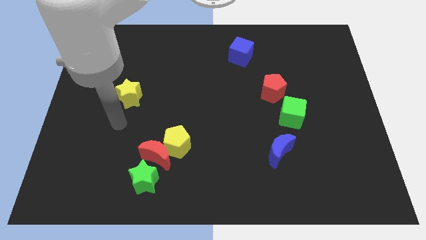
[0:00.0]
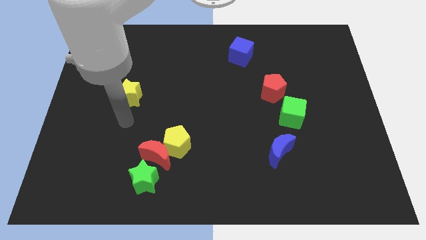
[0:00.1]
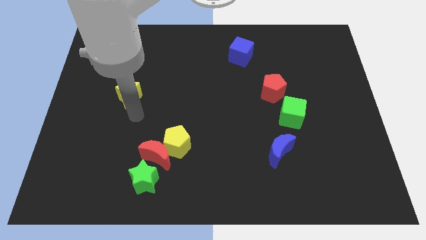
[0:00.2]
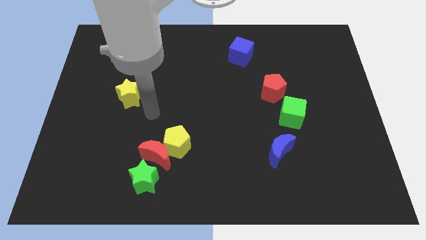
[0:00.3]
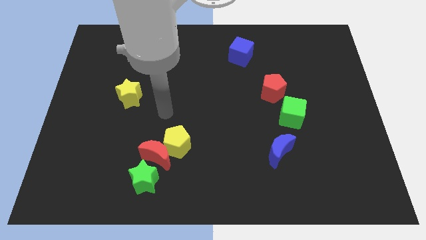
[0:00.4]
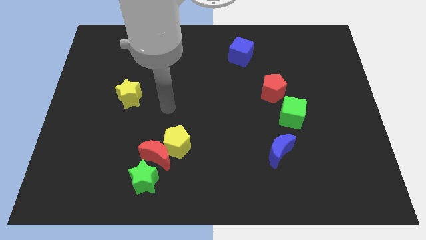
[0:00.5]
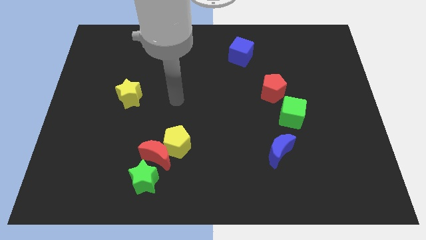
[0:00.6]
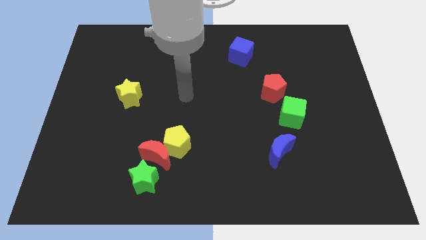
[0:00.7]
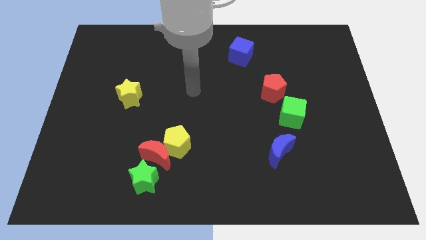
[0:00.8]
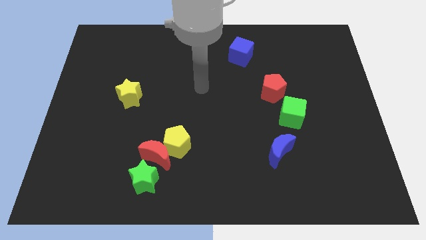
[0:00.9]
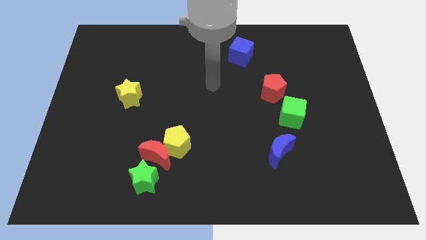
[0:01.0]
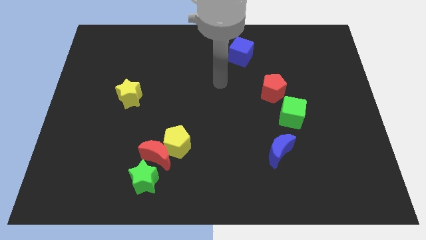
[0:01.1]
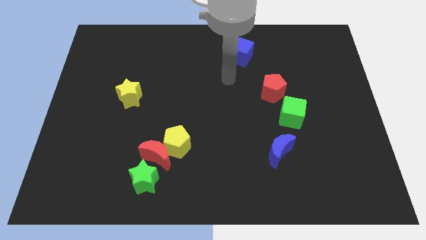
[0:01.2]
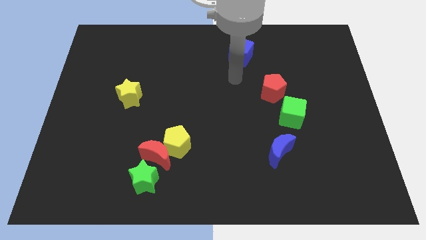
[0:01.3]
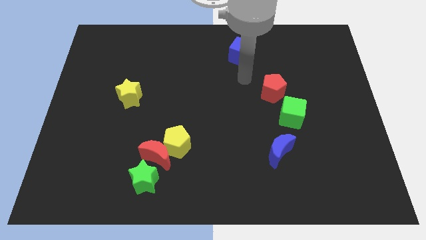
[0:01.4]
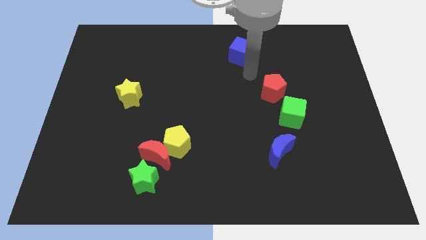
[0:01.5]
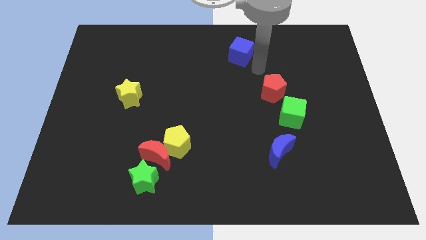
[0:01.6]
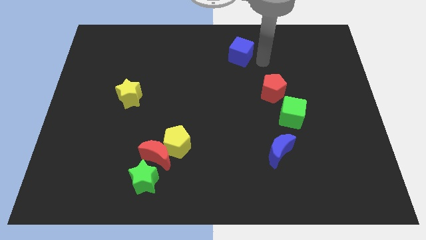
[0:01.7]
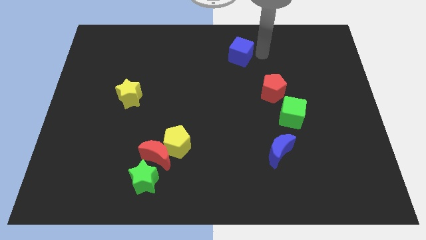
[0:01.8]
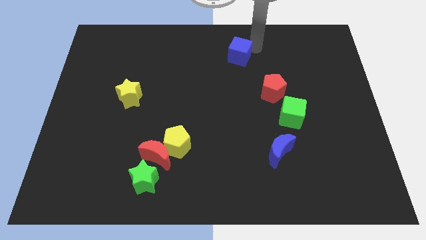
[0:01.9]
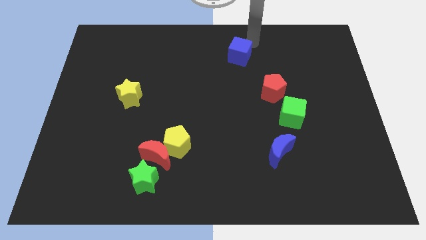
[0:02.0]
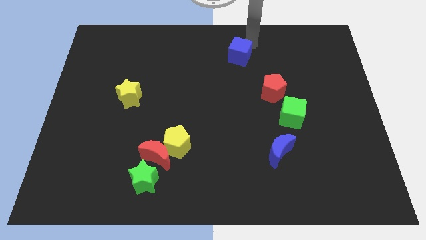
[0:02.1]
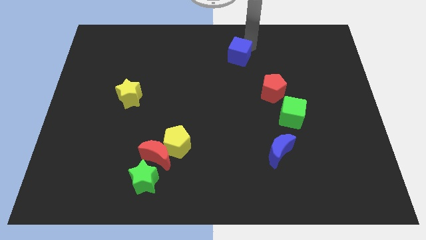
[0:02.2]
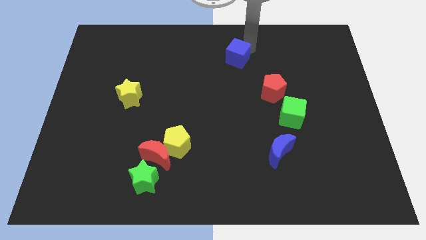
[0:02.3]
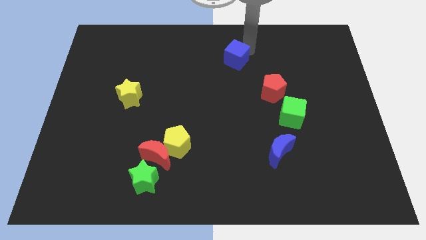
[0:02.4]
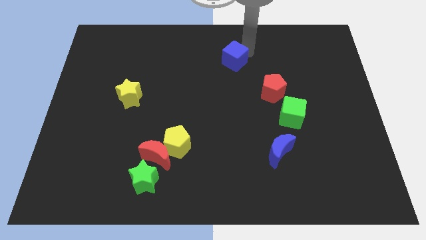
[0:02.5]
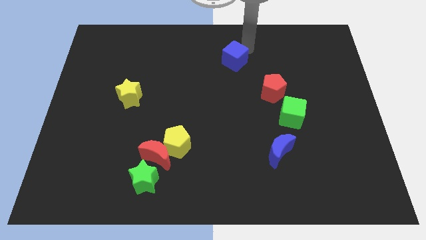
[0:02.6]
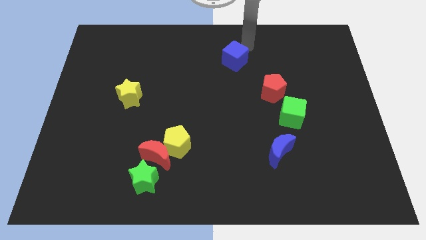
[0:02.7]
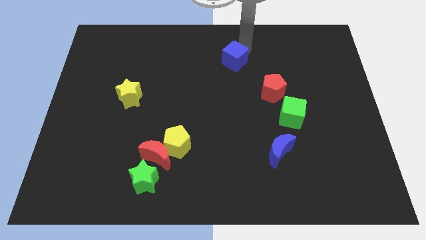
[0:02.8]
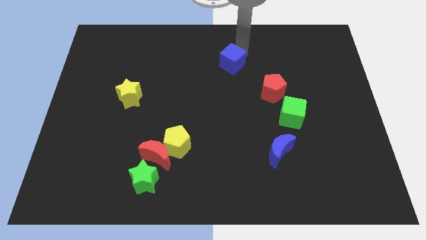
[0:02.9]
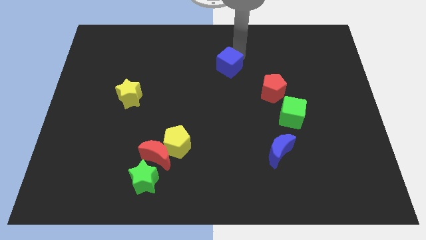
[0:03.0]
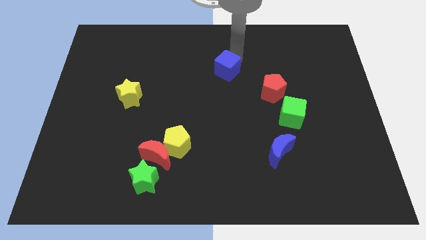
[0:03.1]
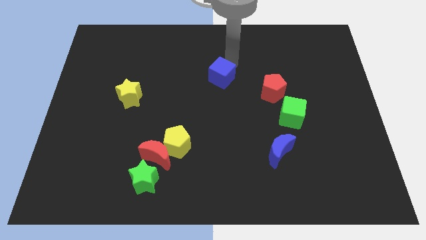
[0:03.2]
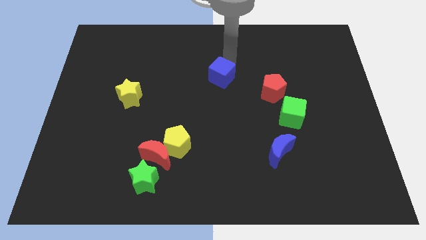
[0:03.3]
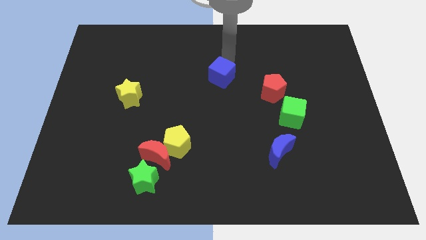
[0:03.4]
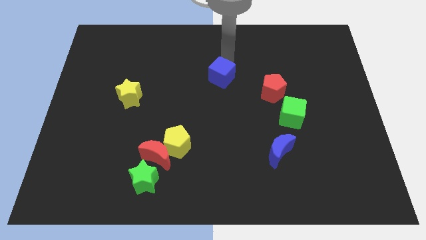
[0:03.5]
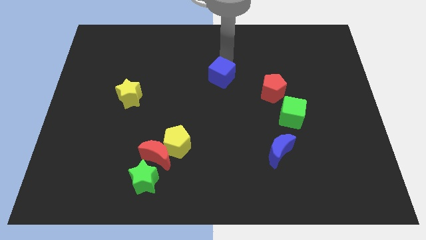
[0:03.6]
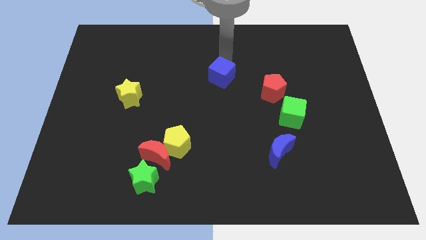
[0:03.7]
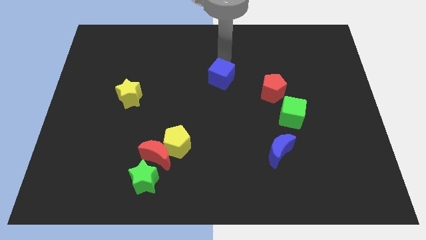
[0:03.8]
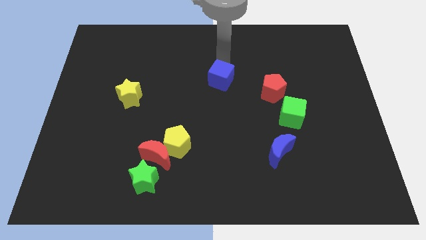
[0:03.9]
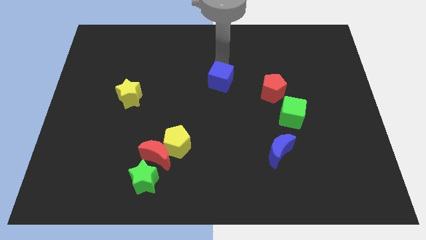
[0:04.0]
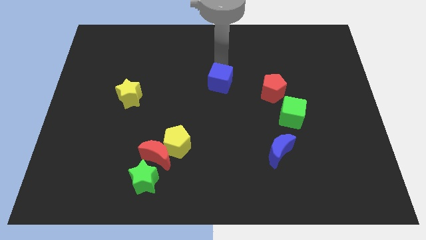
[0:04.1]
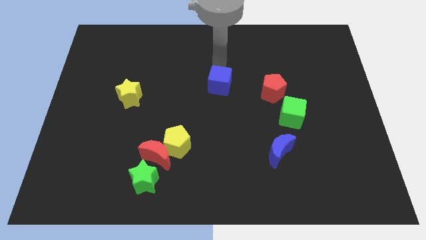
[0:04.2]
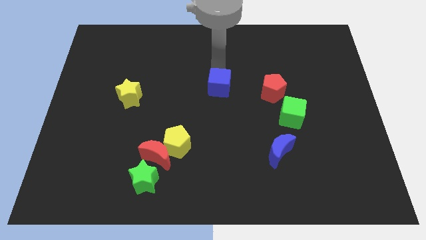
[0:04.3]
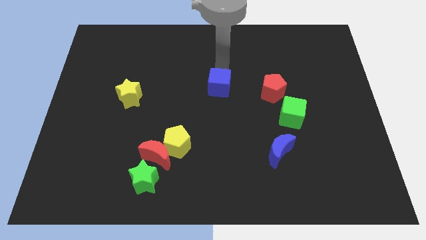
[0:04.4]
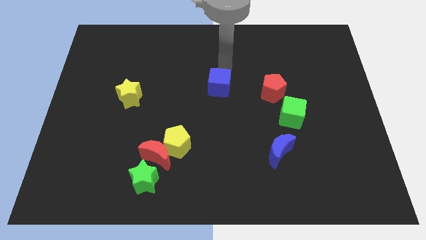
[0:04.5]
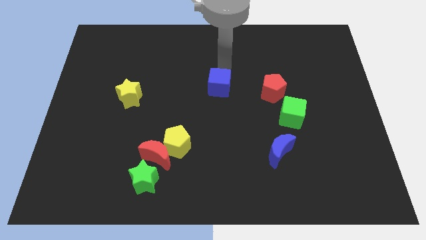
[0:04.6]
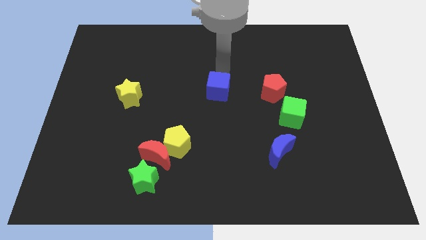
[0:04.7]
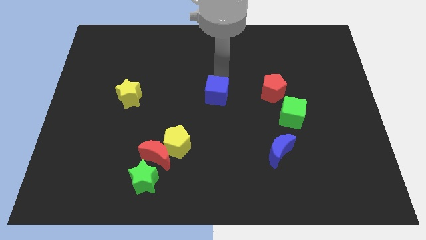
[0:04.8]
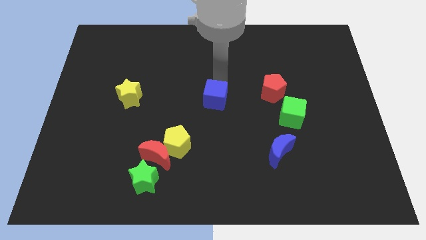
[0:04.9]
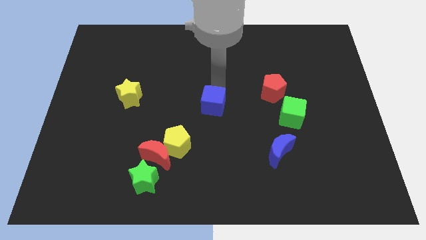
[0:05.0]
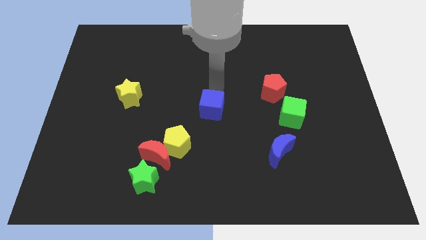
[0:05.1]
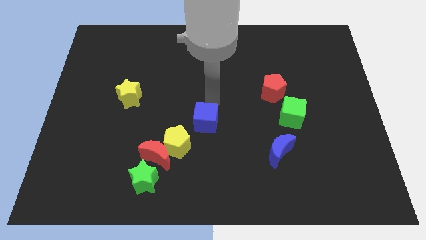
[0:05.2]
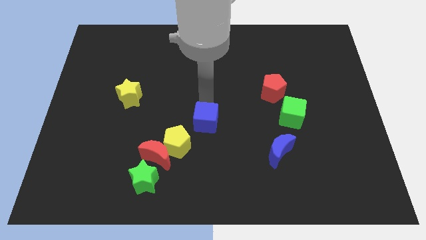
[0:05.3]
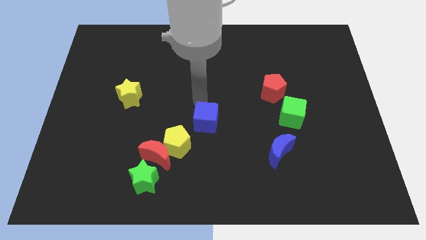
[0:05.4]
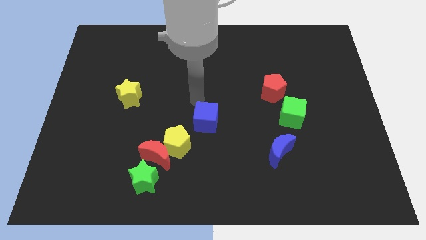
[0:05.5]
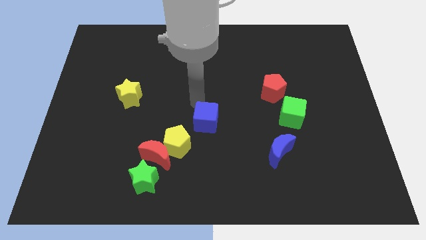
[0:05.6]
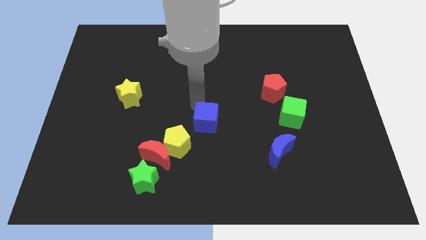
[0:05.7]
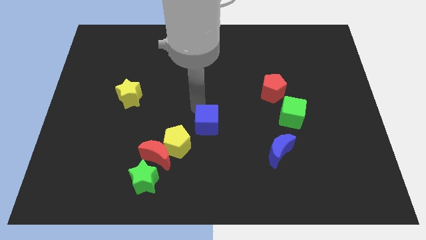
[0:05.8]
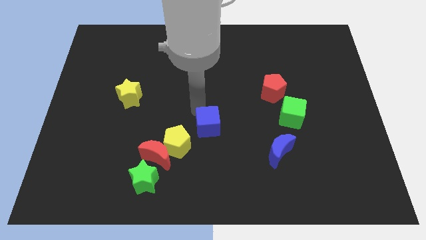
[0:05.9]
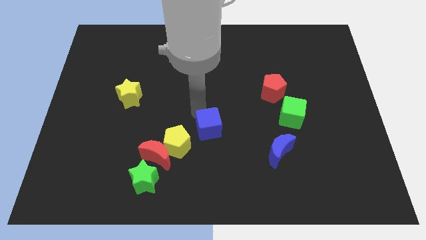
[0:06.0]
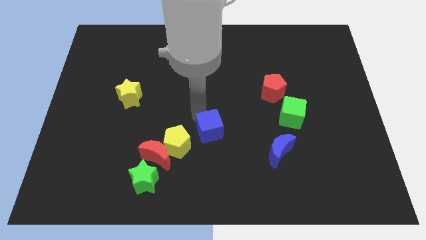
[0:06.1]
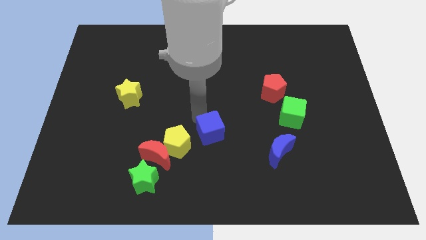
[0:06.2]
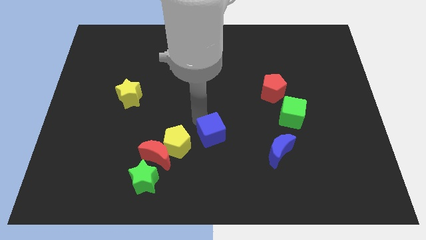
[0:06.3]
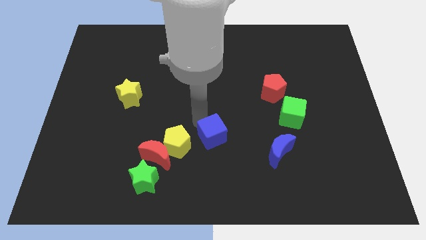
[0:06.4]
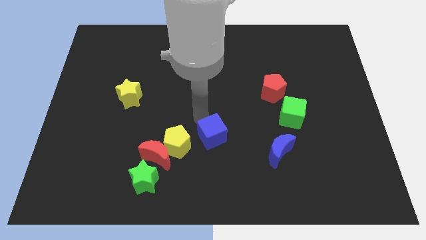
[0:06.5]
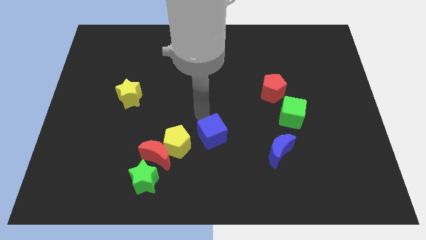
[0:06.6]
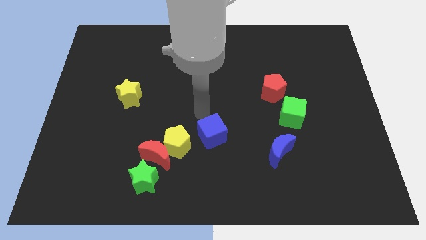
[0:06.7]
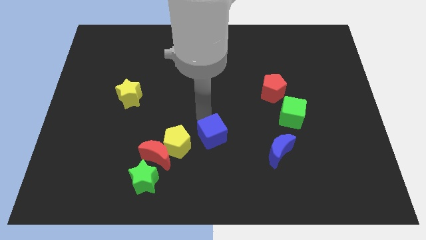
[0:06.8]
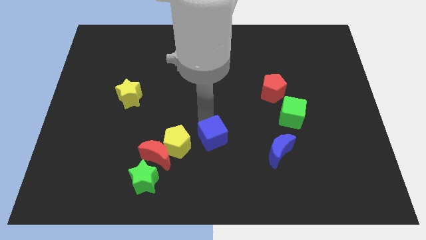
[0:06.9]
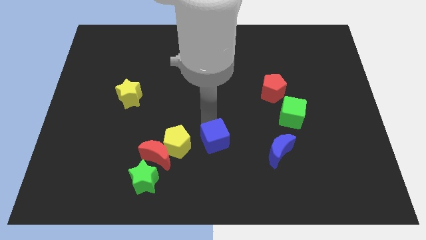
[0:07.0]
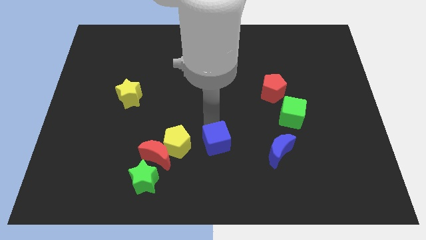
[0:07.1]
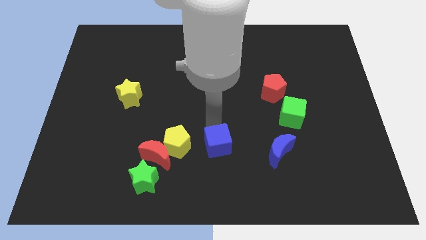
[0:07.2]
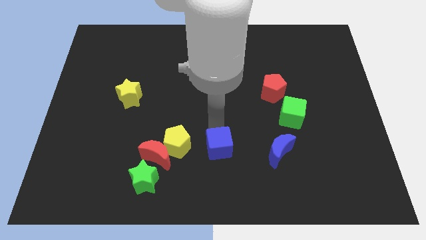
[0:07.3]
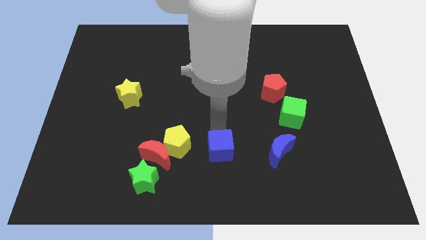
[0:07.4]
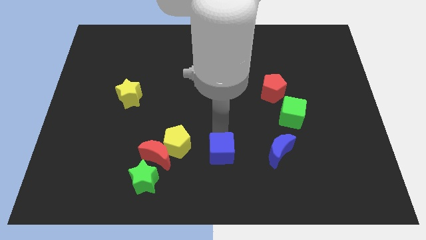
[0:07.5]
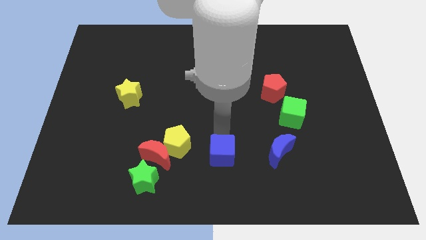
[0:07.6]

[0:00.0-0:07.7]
move the blue cube to the bottom
